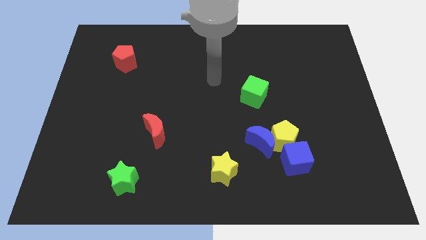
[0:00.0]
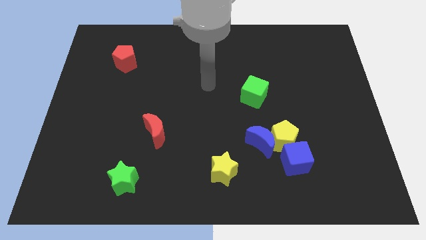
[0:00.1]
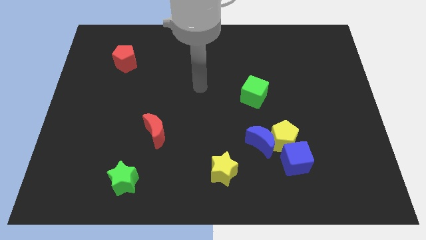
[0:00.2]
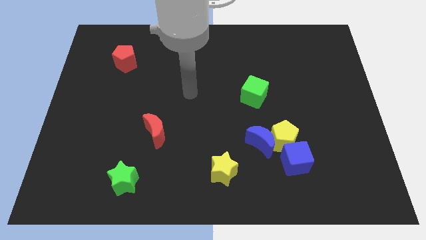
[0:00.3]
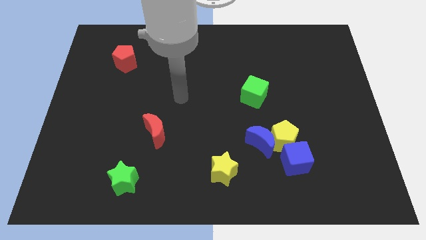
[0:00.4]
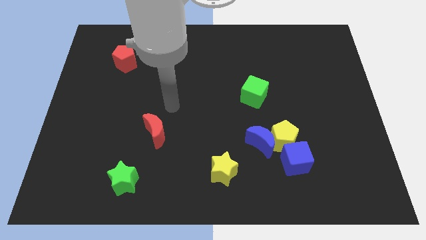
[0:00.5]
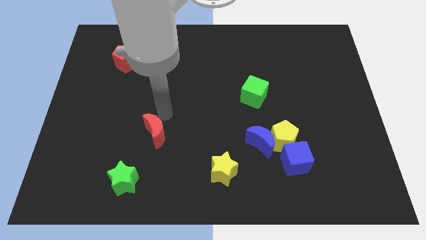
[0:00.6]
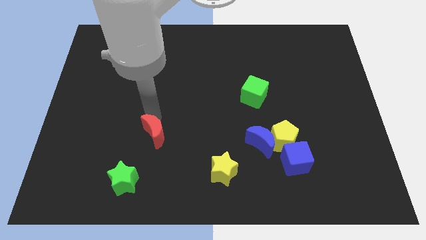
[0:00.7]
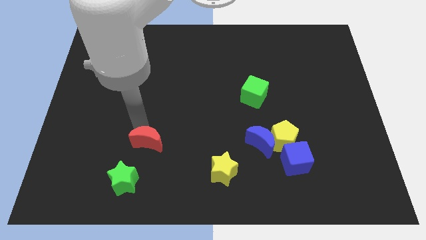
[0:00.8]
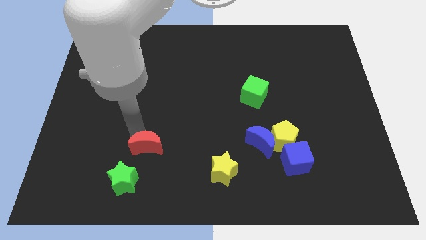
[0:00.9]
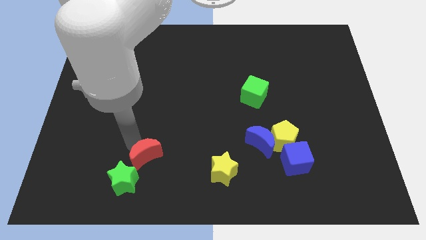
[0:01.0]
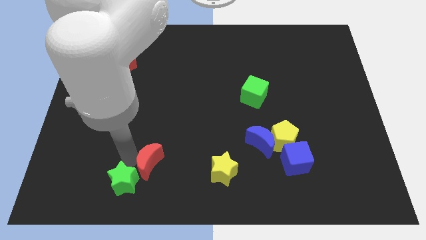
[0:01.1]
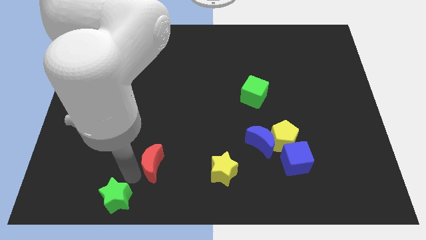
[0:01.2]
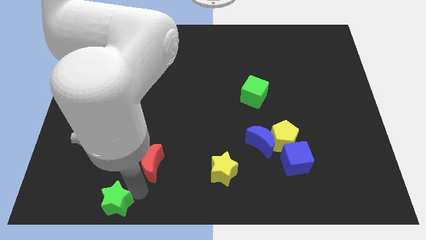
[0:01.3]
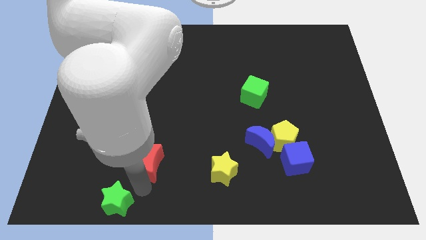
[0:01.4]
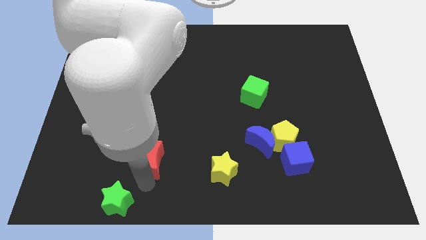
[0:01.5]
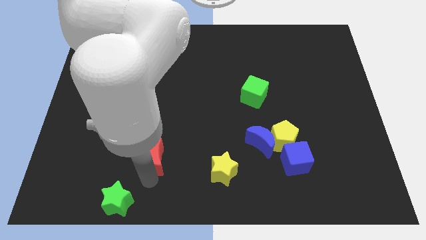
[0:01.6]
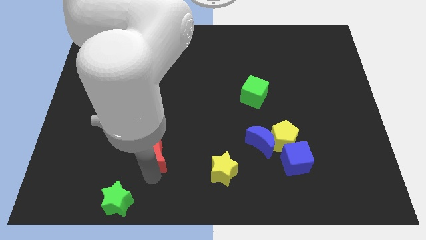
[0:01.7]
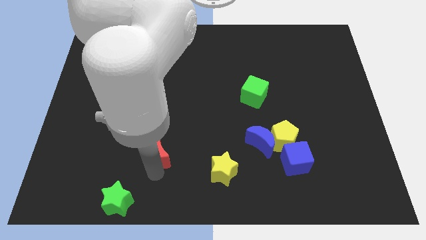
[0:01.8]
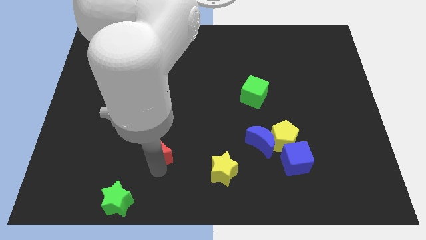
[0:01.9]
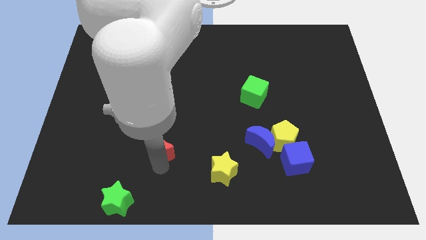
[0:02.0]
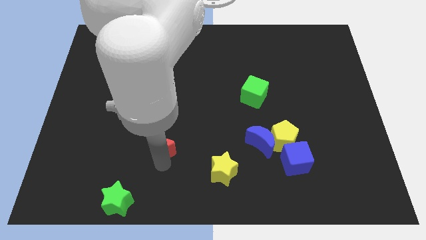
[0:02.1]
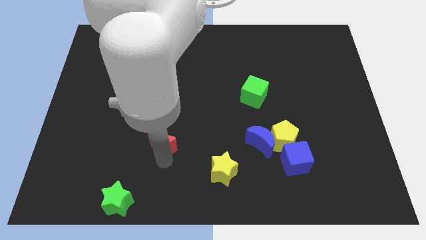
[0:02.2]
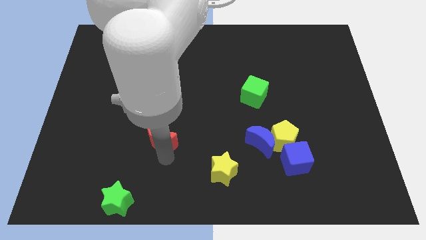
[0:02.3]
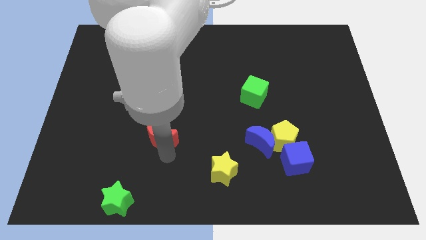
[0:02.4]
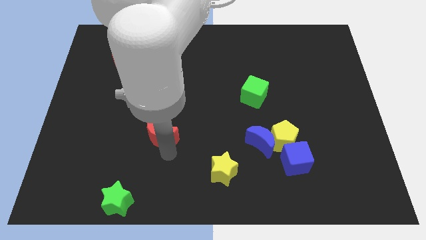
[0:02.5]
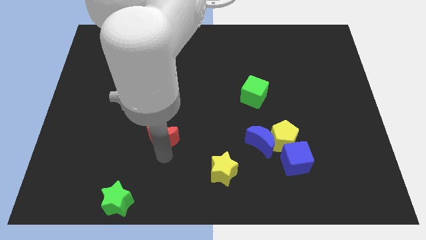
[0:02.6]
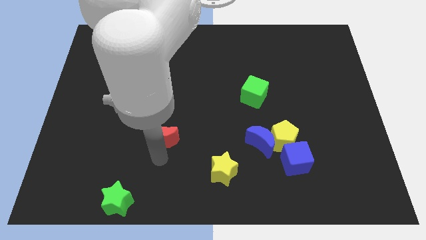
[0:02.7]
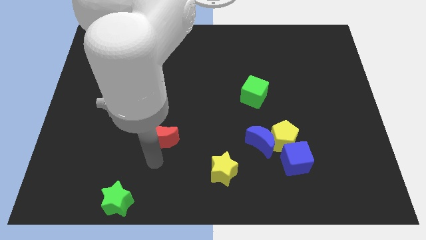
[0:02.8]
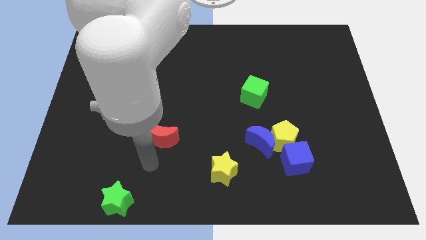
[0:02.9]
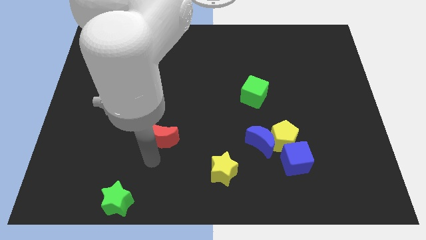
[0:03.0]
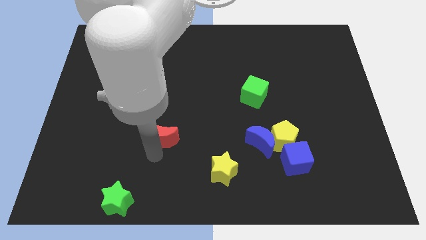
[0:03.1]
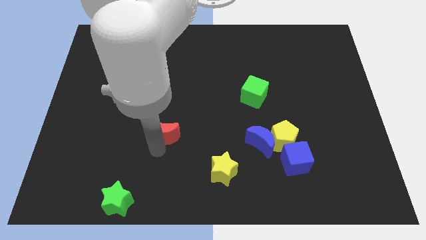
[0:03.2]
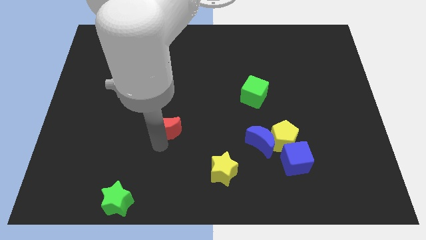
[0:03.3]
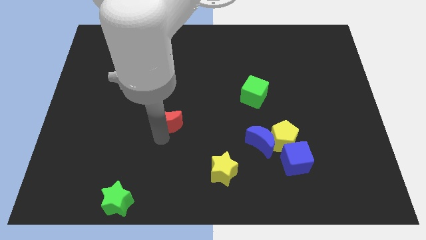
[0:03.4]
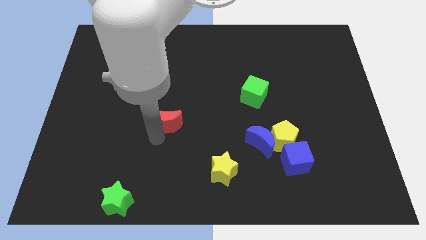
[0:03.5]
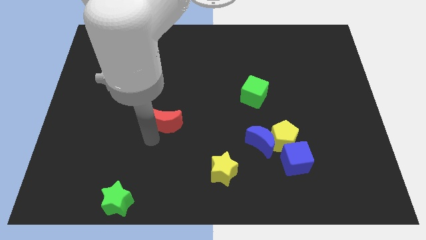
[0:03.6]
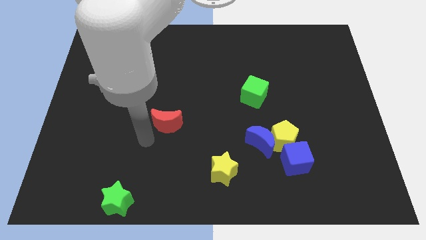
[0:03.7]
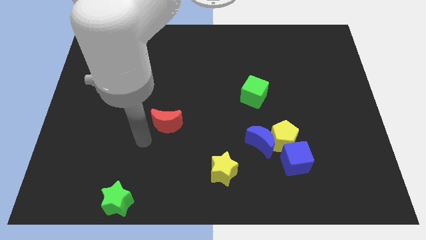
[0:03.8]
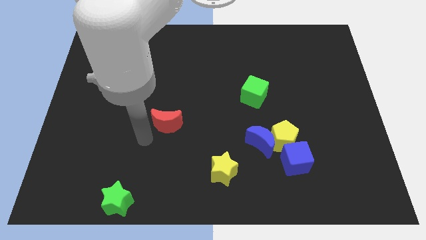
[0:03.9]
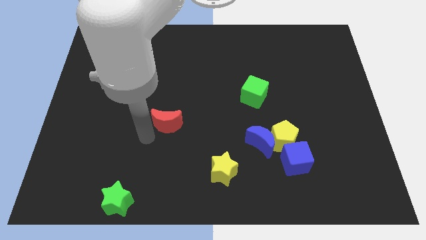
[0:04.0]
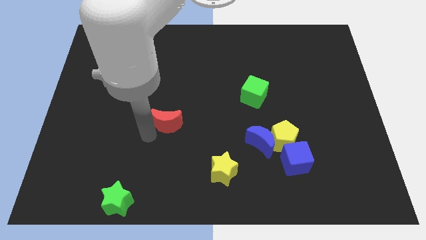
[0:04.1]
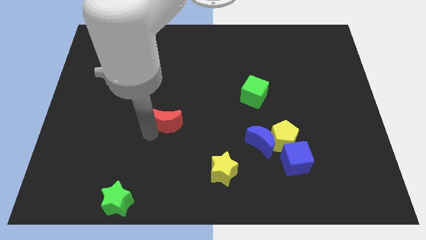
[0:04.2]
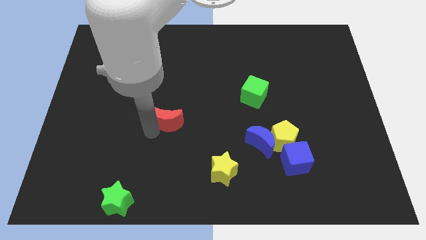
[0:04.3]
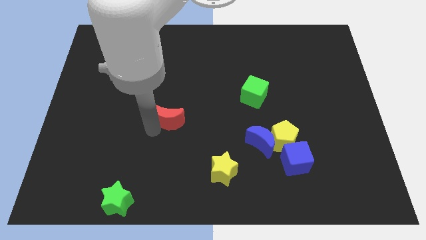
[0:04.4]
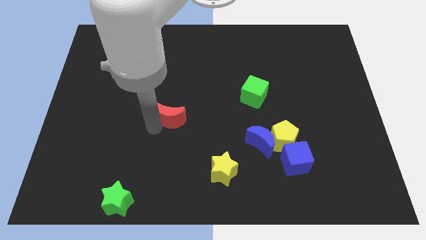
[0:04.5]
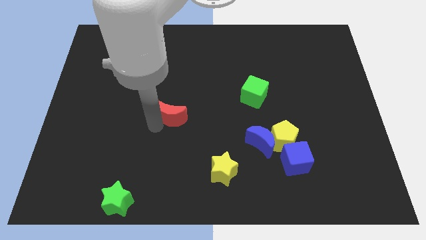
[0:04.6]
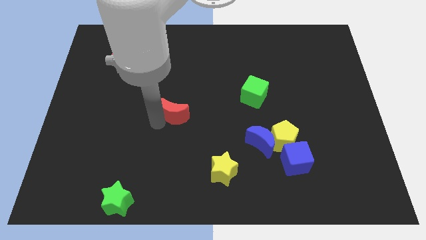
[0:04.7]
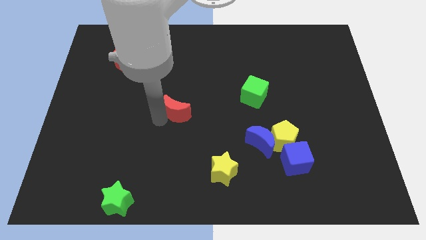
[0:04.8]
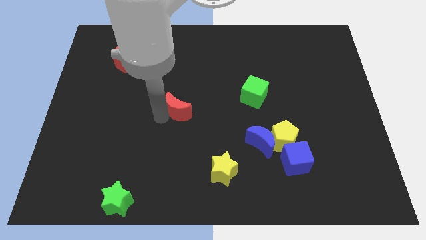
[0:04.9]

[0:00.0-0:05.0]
push the red moon upwards and right a little bit

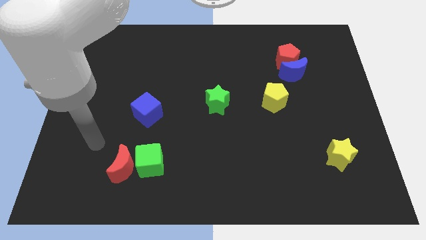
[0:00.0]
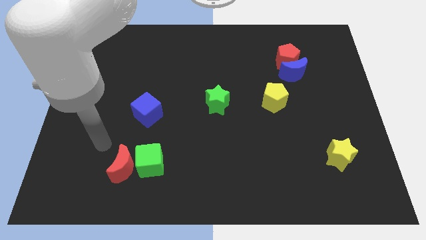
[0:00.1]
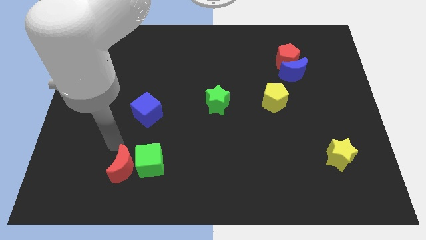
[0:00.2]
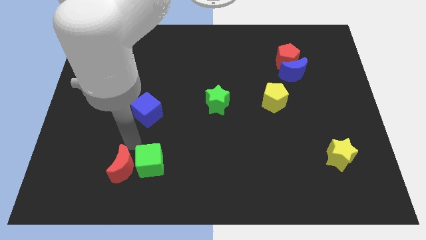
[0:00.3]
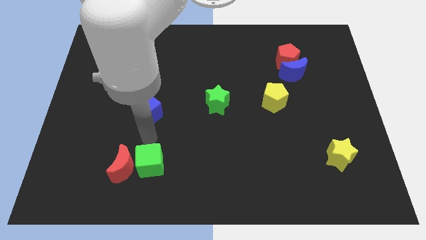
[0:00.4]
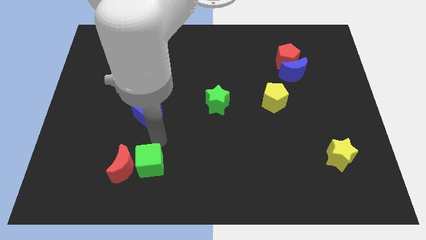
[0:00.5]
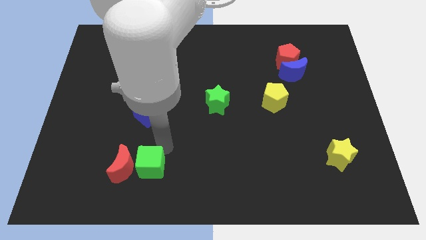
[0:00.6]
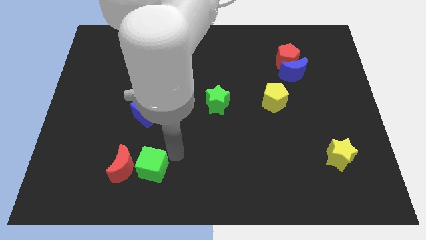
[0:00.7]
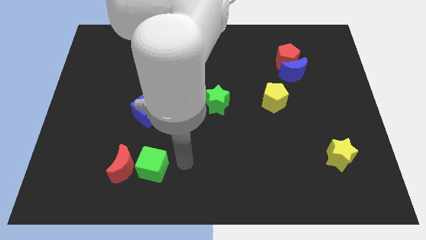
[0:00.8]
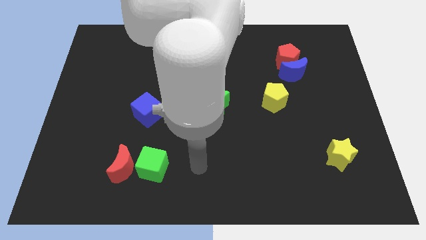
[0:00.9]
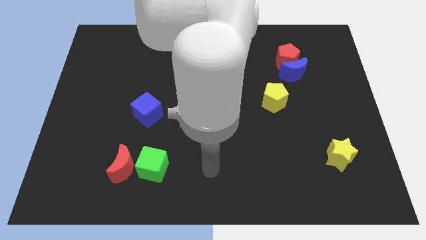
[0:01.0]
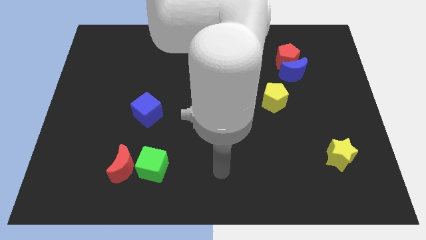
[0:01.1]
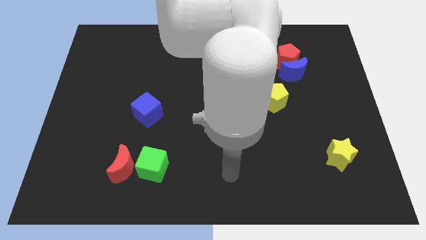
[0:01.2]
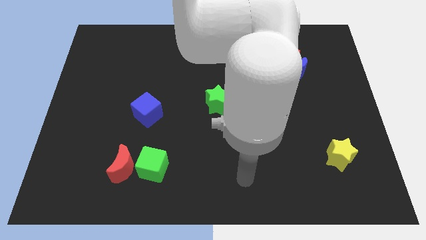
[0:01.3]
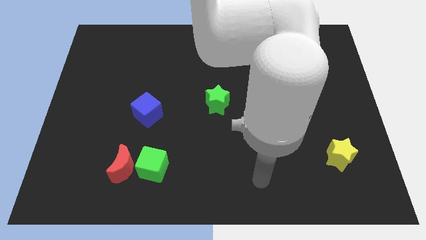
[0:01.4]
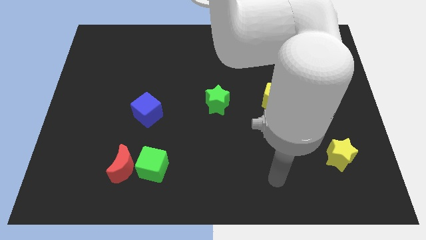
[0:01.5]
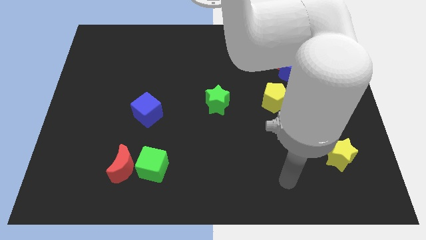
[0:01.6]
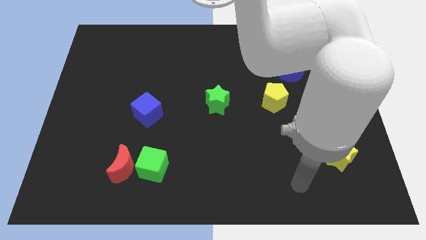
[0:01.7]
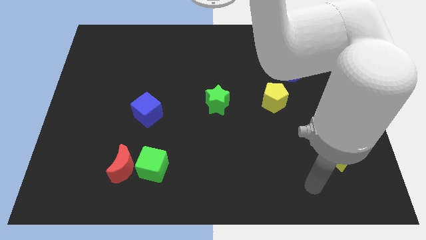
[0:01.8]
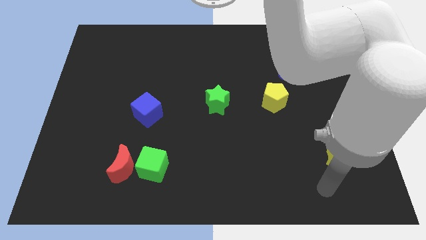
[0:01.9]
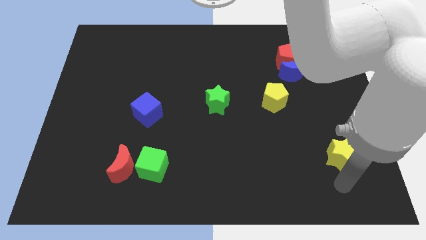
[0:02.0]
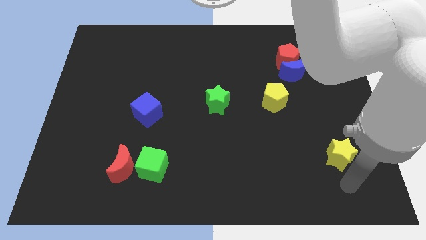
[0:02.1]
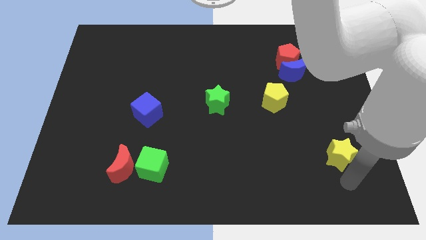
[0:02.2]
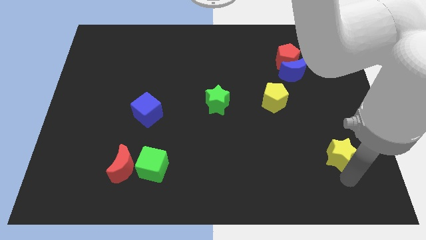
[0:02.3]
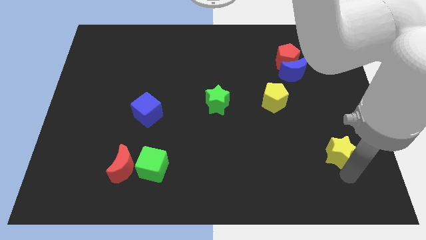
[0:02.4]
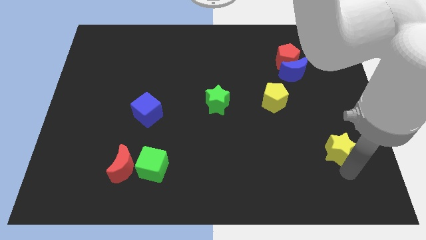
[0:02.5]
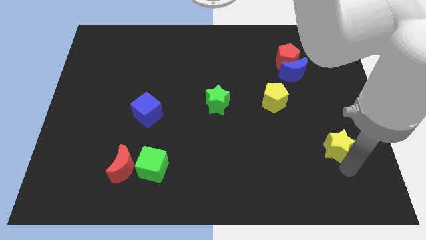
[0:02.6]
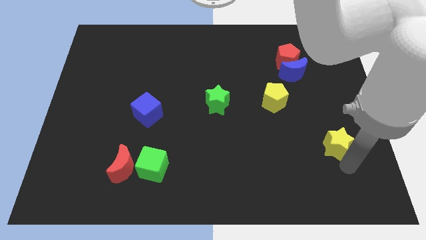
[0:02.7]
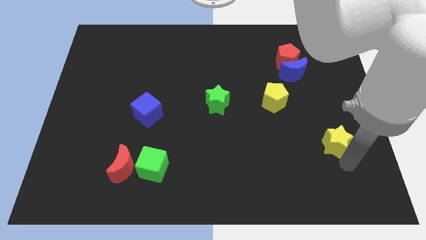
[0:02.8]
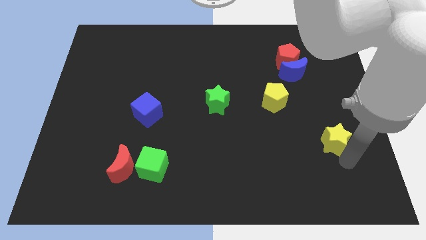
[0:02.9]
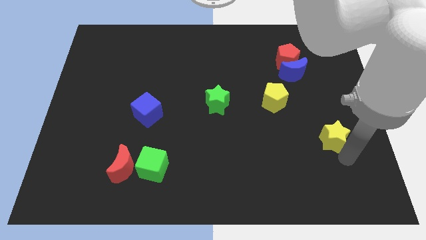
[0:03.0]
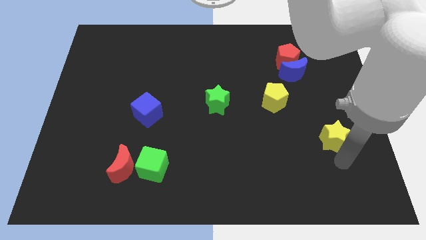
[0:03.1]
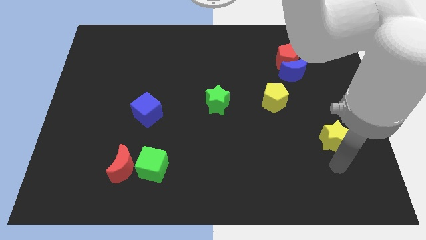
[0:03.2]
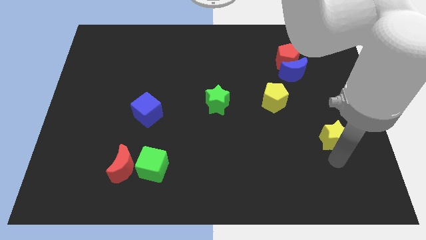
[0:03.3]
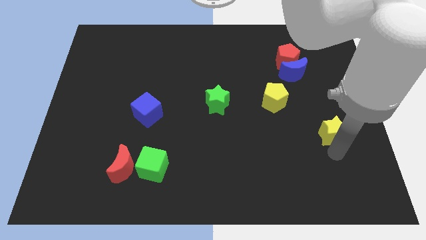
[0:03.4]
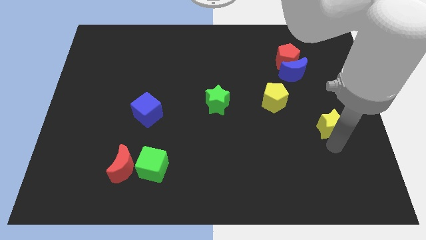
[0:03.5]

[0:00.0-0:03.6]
slide the yellow star up somewhat
